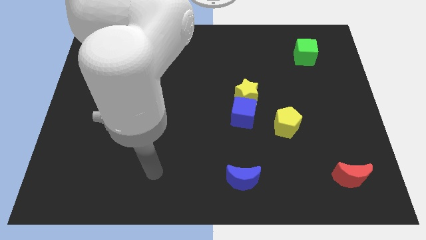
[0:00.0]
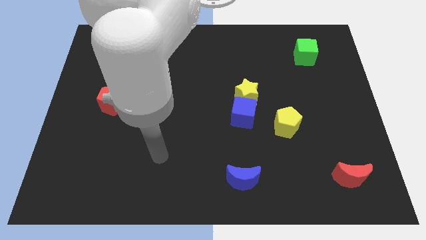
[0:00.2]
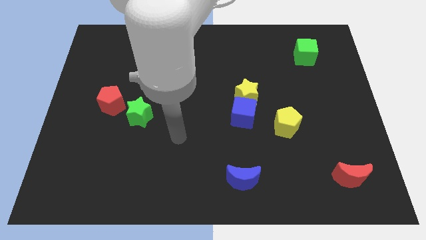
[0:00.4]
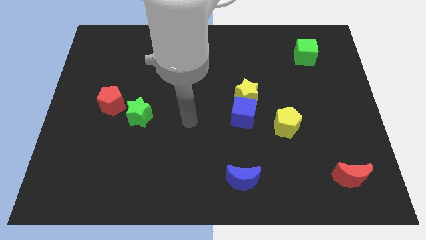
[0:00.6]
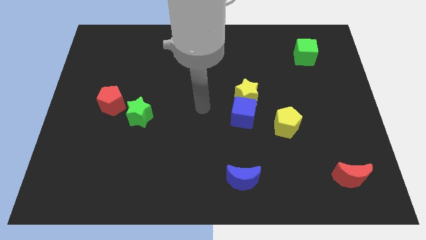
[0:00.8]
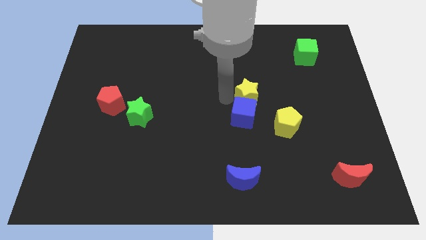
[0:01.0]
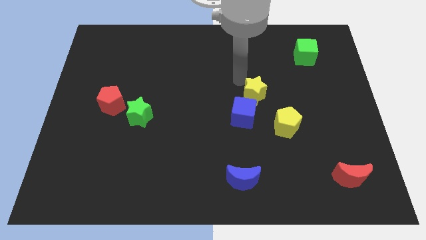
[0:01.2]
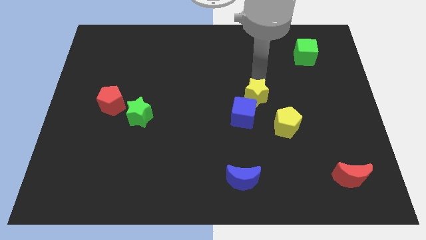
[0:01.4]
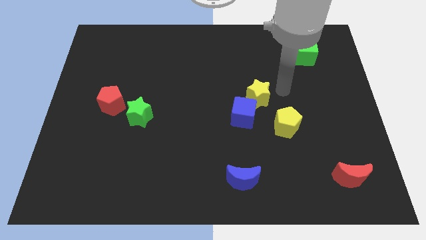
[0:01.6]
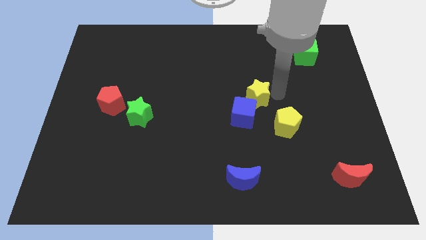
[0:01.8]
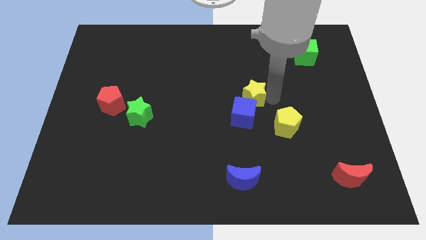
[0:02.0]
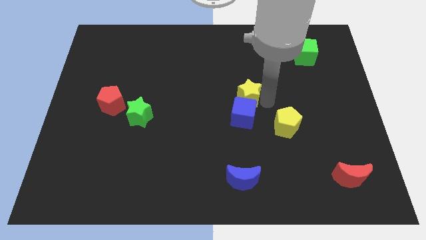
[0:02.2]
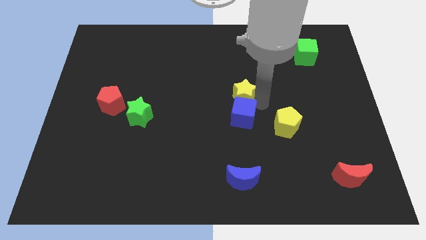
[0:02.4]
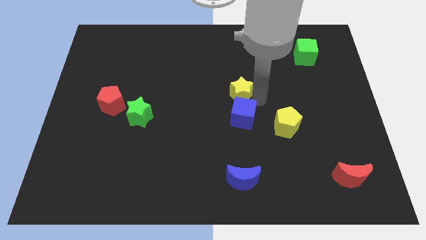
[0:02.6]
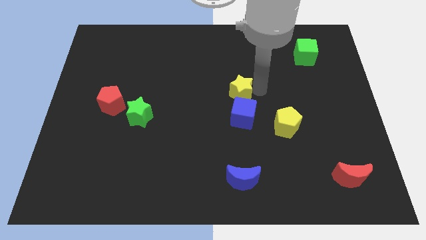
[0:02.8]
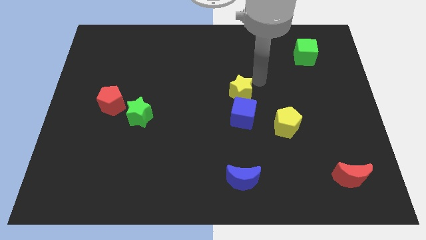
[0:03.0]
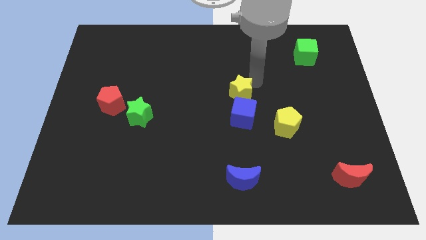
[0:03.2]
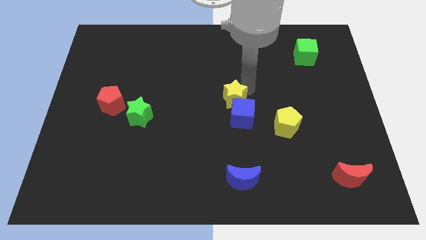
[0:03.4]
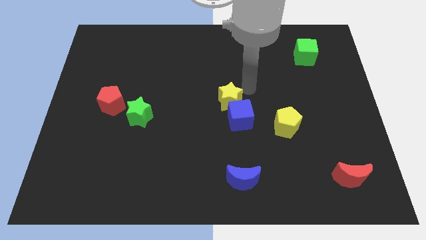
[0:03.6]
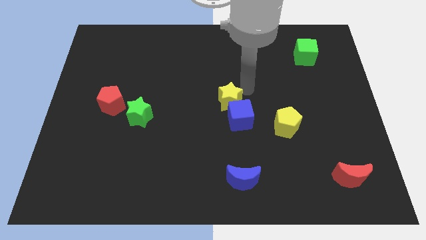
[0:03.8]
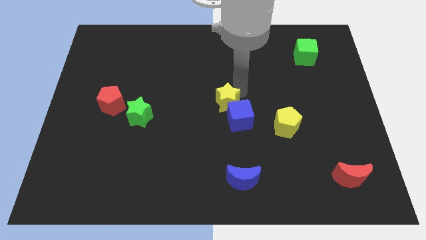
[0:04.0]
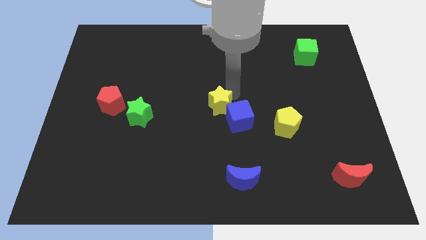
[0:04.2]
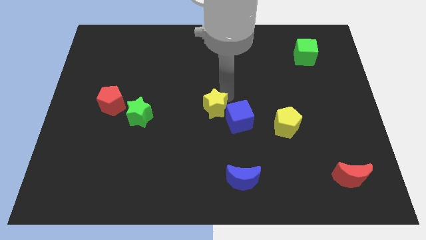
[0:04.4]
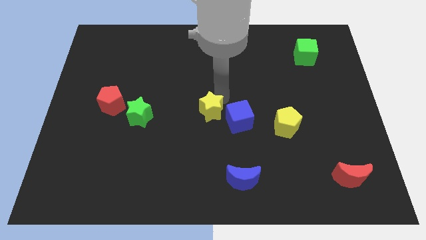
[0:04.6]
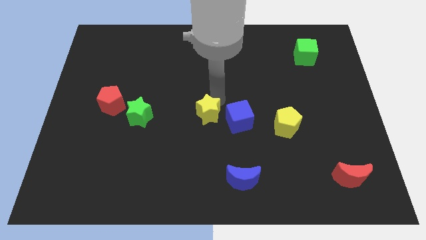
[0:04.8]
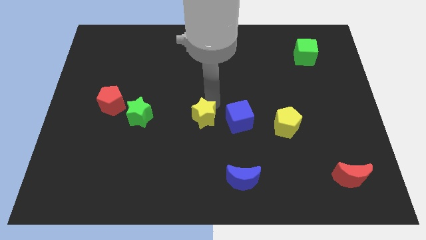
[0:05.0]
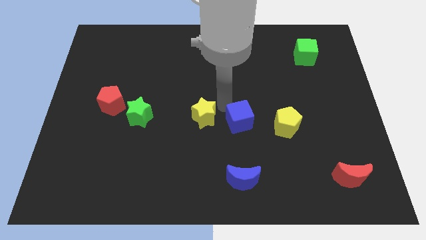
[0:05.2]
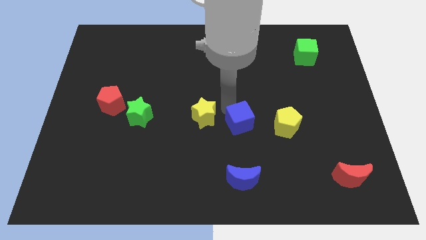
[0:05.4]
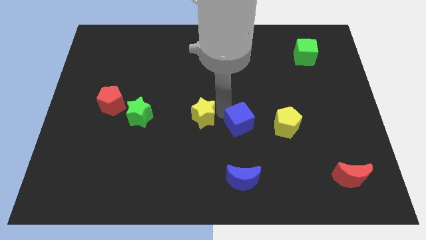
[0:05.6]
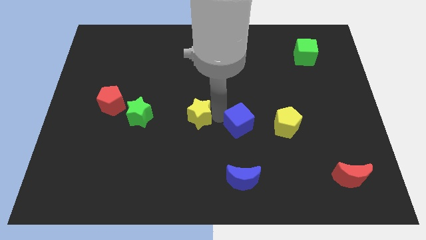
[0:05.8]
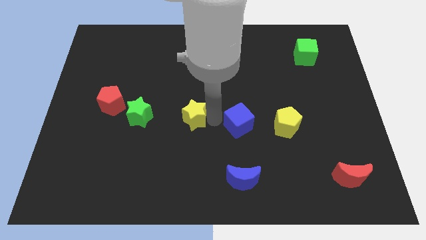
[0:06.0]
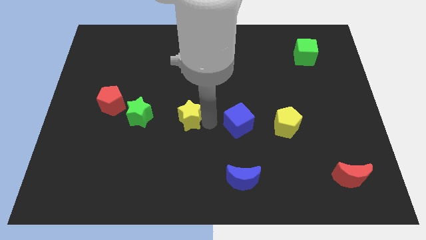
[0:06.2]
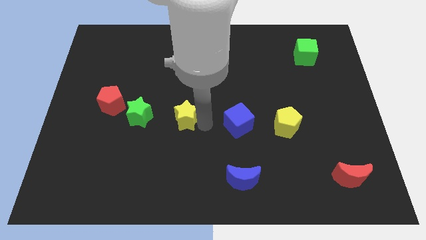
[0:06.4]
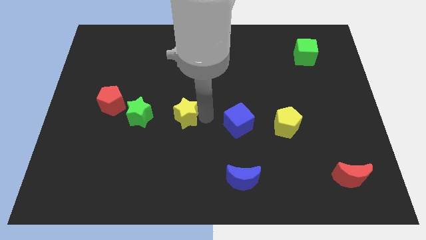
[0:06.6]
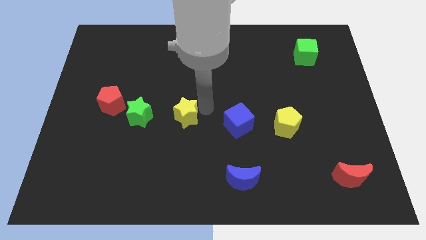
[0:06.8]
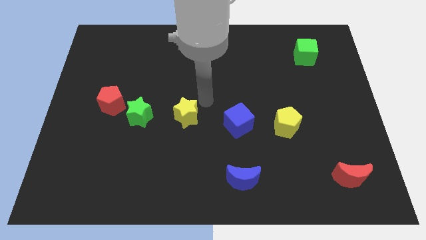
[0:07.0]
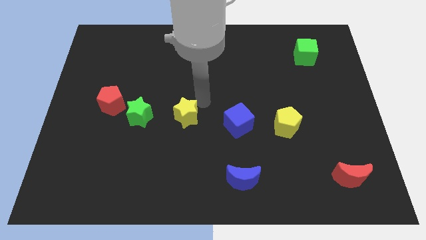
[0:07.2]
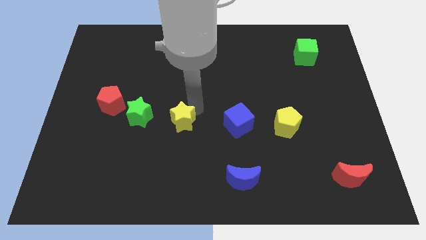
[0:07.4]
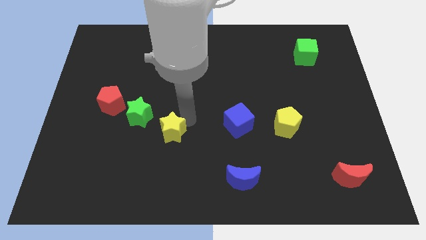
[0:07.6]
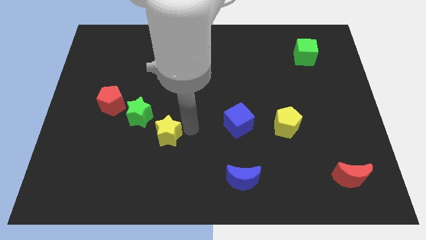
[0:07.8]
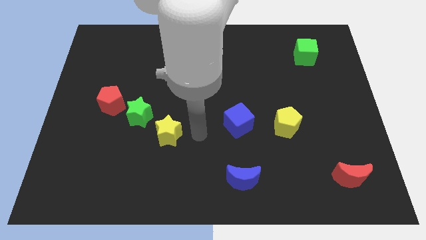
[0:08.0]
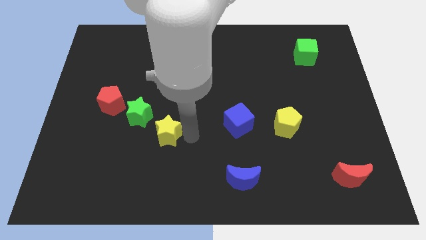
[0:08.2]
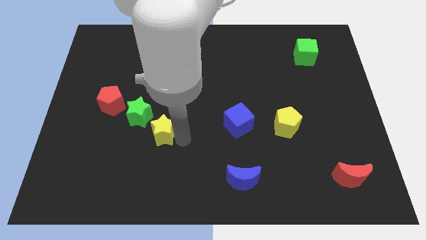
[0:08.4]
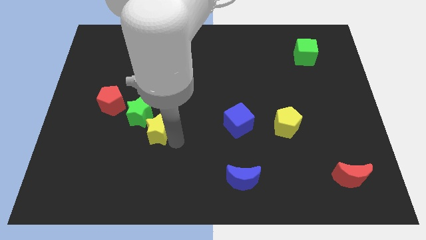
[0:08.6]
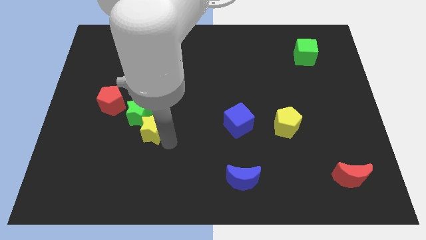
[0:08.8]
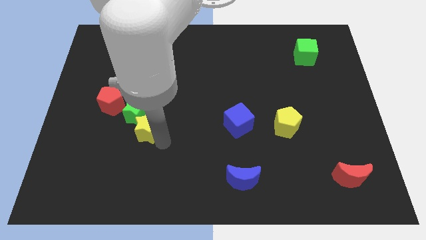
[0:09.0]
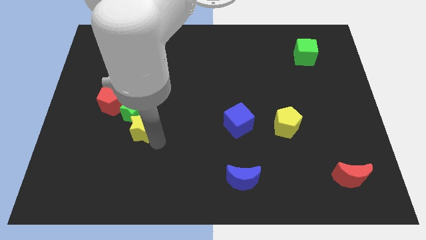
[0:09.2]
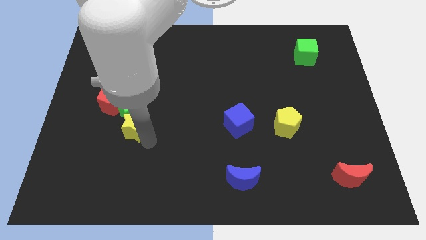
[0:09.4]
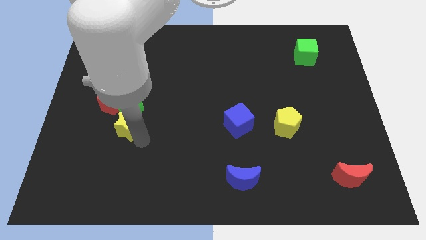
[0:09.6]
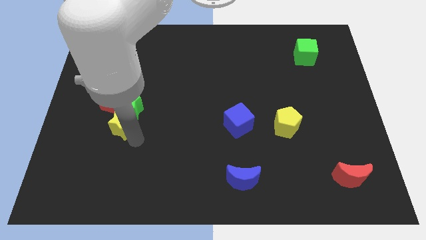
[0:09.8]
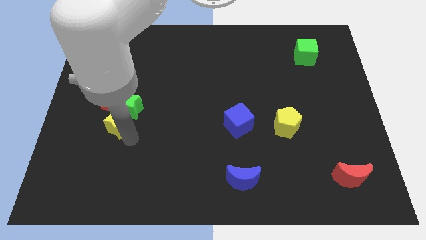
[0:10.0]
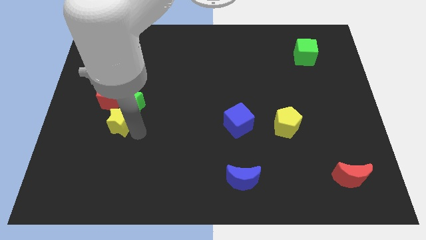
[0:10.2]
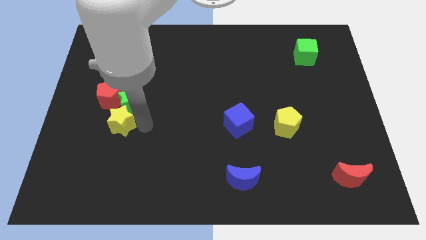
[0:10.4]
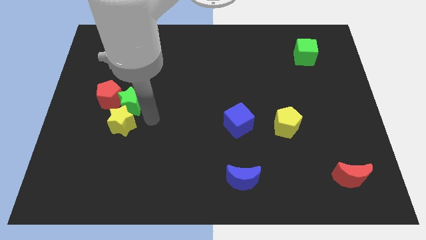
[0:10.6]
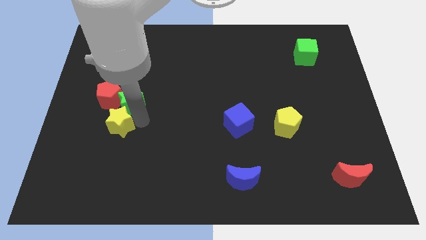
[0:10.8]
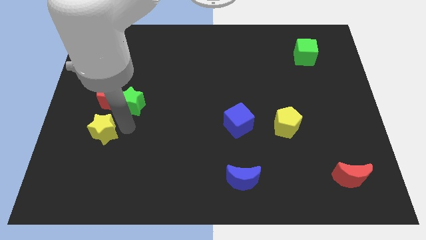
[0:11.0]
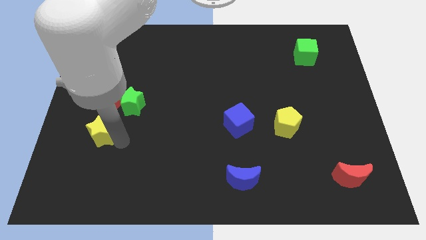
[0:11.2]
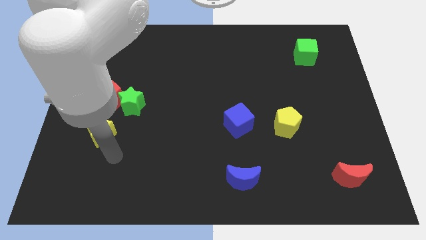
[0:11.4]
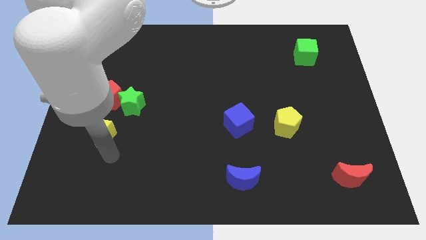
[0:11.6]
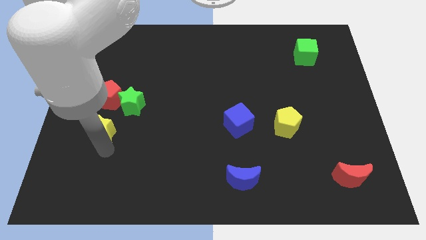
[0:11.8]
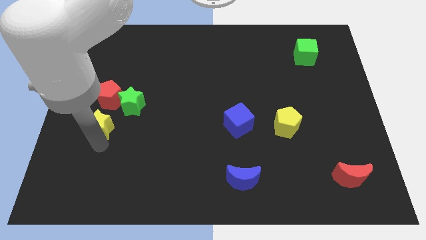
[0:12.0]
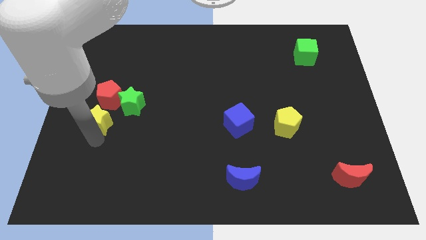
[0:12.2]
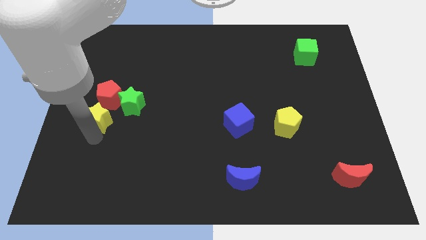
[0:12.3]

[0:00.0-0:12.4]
push the yellow star just left of the green star

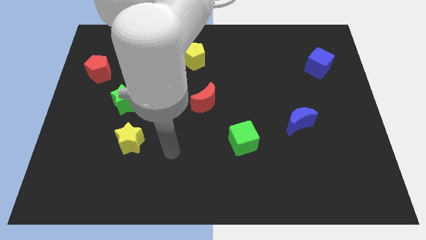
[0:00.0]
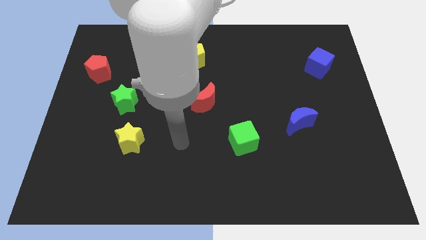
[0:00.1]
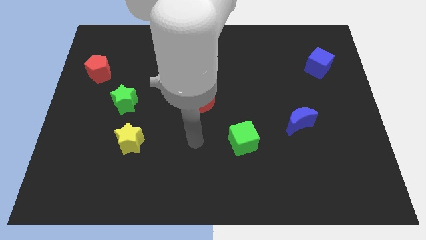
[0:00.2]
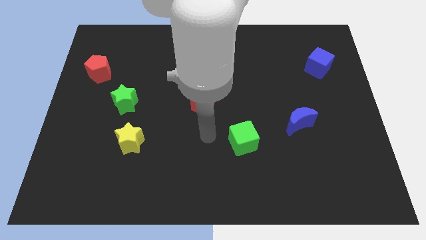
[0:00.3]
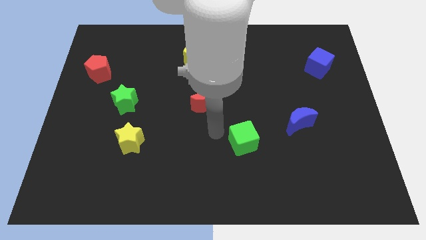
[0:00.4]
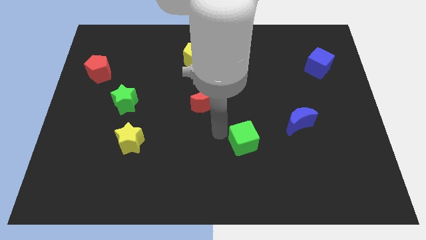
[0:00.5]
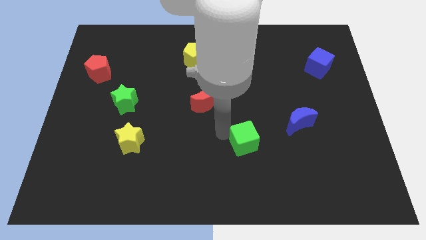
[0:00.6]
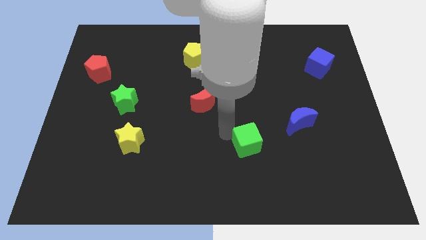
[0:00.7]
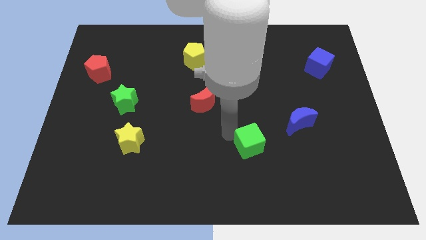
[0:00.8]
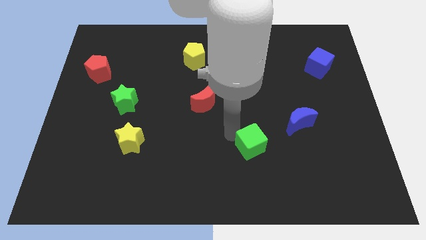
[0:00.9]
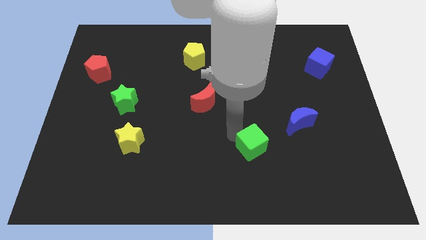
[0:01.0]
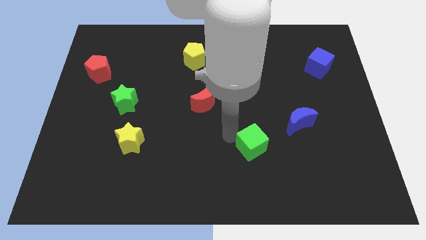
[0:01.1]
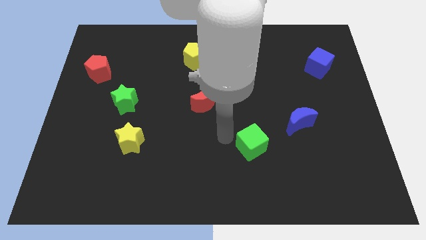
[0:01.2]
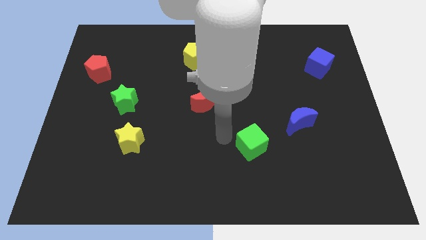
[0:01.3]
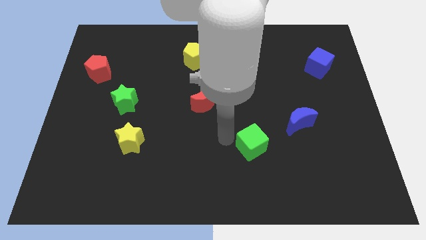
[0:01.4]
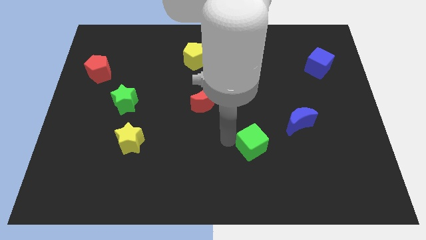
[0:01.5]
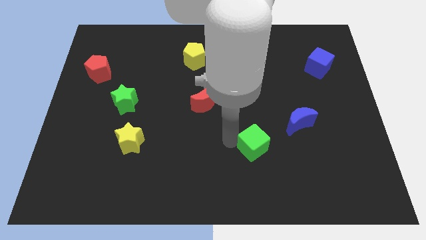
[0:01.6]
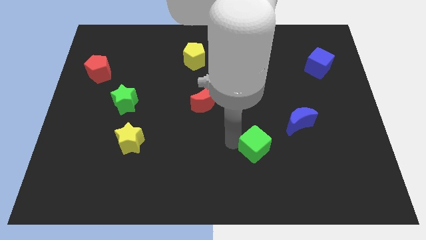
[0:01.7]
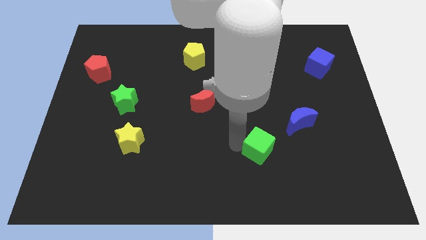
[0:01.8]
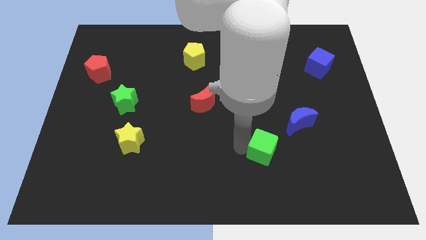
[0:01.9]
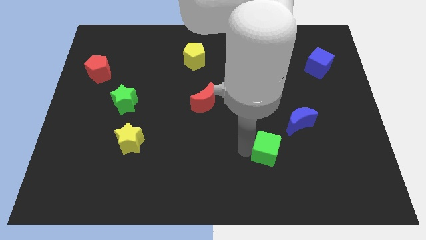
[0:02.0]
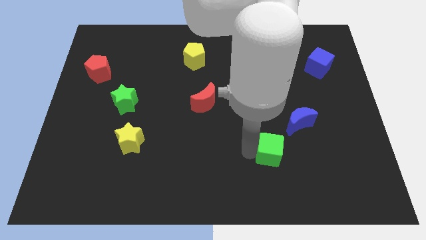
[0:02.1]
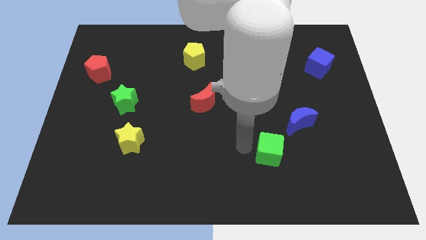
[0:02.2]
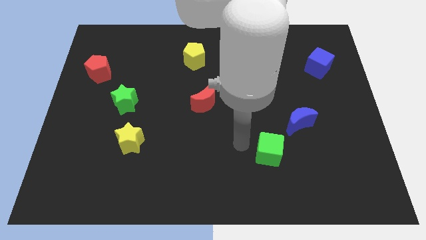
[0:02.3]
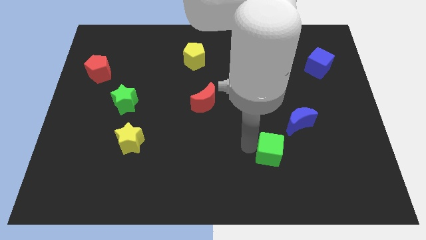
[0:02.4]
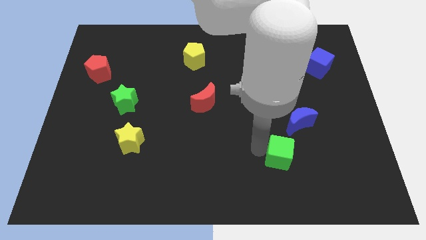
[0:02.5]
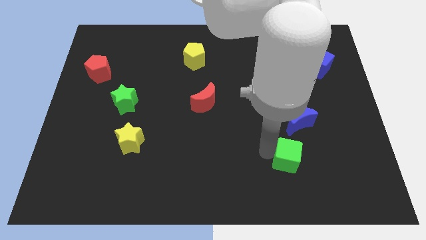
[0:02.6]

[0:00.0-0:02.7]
slide the green cube to the bottom of the blue moon
